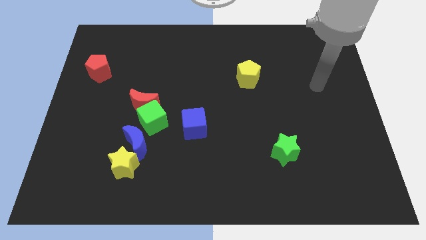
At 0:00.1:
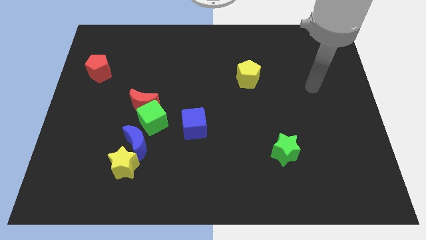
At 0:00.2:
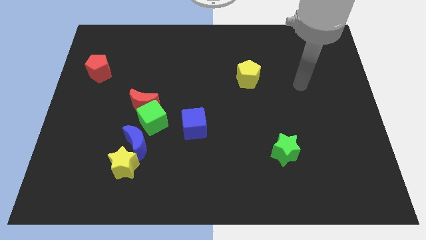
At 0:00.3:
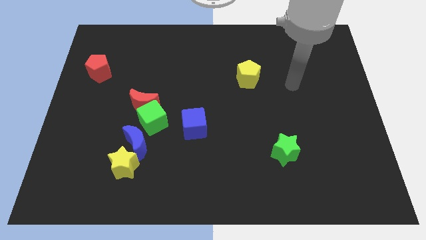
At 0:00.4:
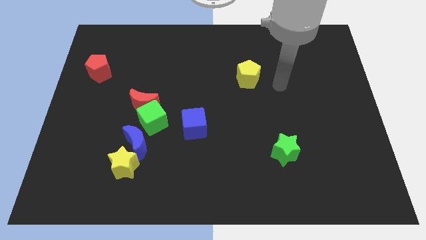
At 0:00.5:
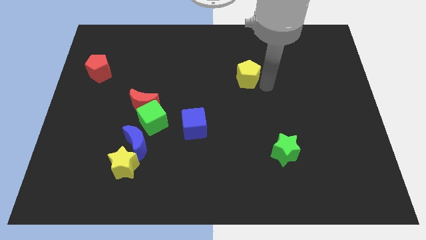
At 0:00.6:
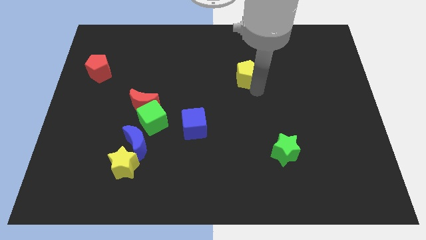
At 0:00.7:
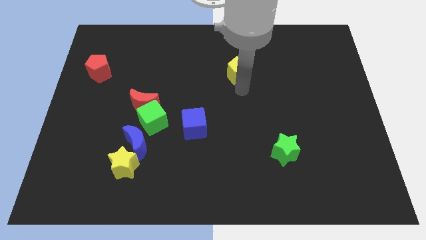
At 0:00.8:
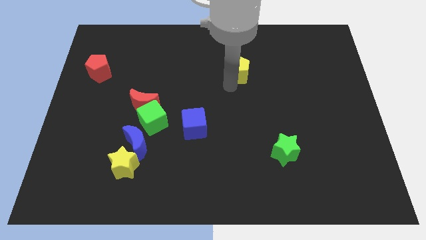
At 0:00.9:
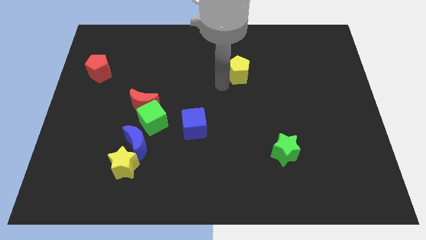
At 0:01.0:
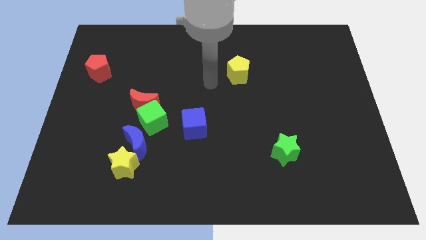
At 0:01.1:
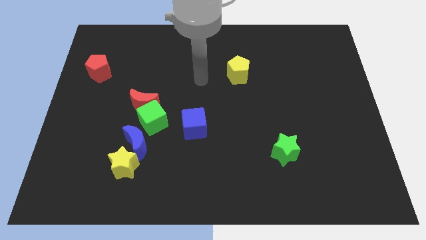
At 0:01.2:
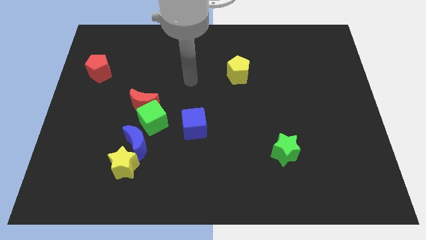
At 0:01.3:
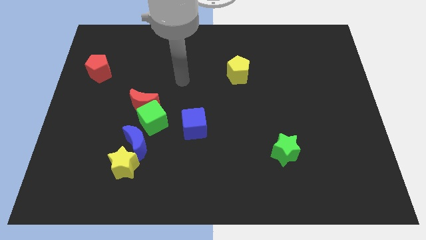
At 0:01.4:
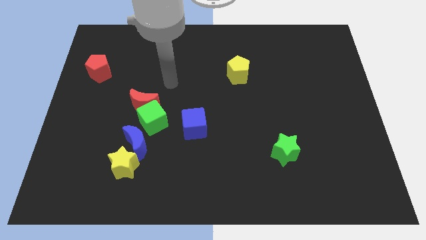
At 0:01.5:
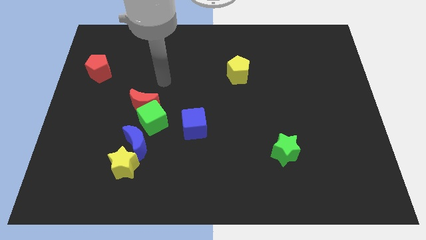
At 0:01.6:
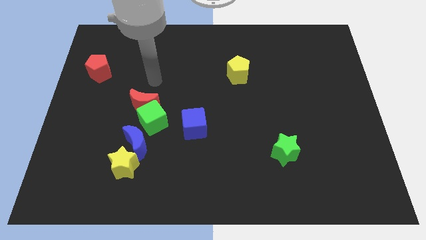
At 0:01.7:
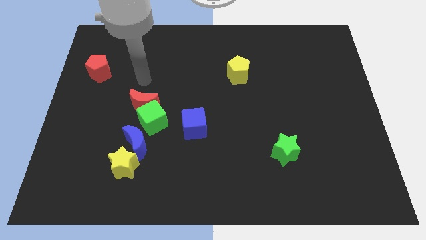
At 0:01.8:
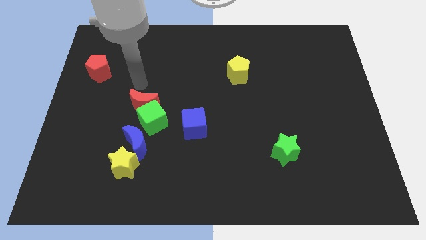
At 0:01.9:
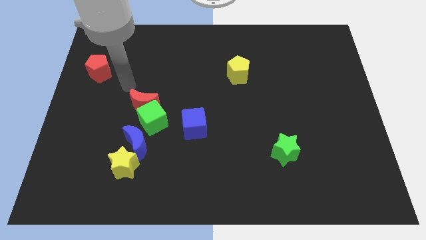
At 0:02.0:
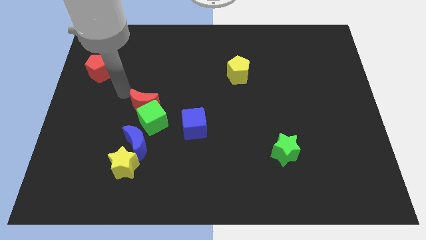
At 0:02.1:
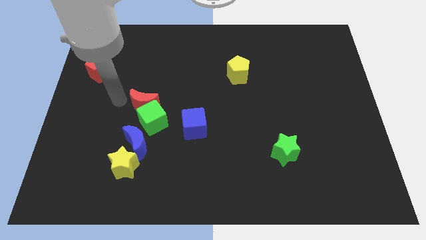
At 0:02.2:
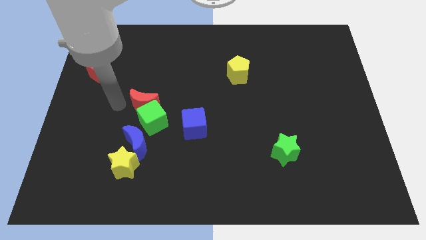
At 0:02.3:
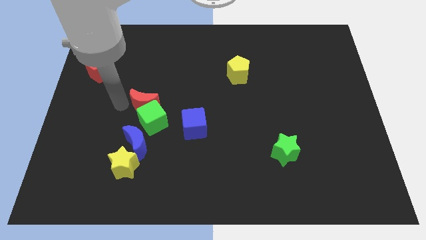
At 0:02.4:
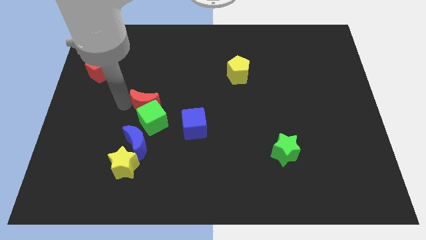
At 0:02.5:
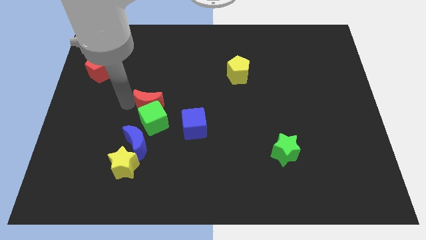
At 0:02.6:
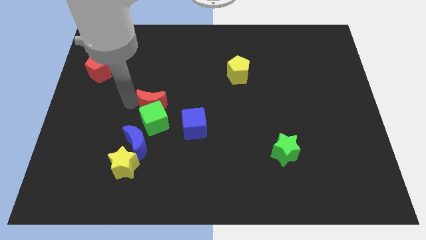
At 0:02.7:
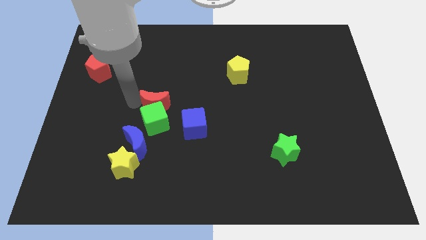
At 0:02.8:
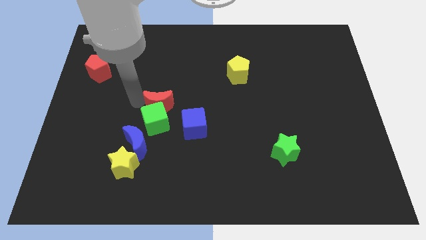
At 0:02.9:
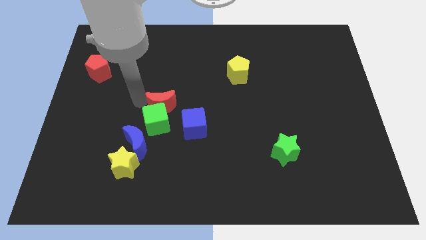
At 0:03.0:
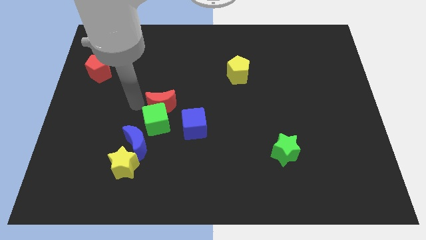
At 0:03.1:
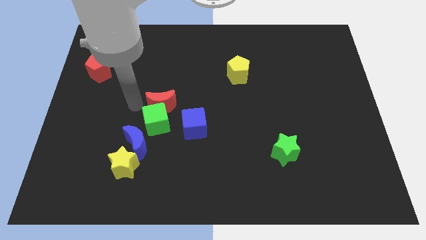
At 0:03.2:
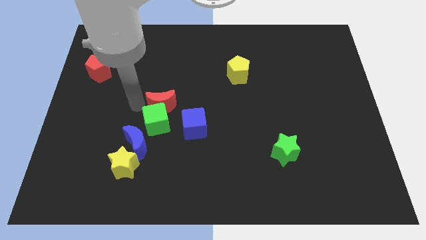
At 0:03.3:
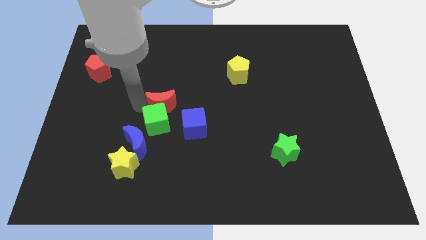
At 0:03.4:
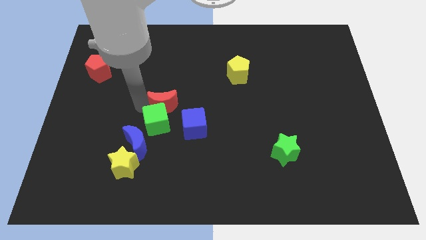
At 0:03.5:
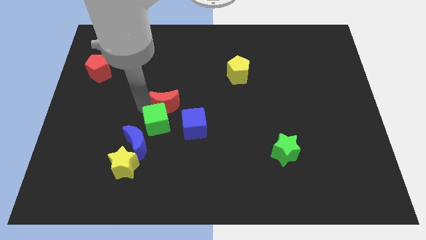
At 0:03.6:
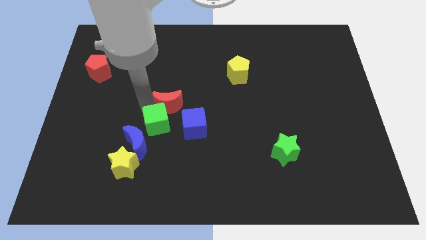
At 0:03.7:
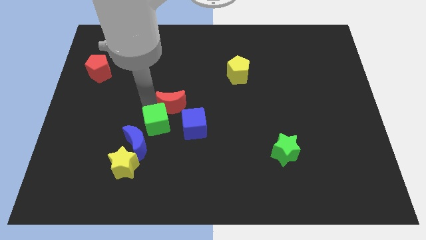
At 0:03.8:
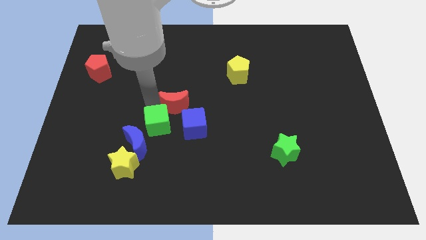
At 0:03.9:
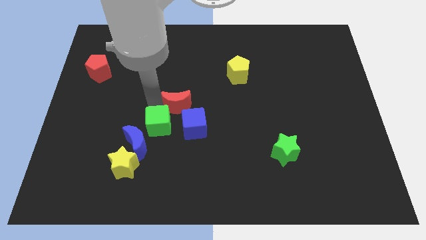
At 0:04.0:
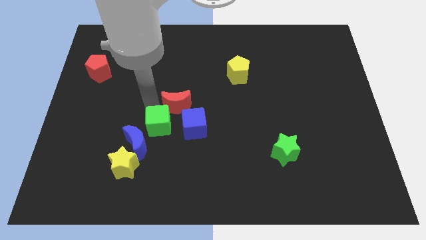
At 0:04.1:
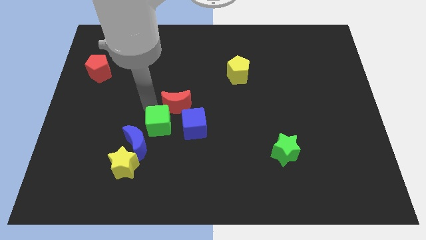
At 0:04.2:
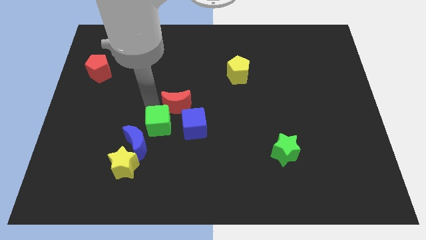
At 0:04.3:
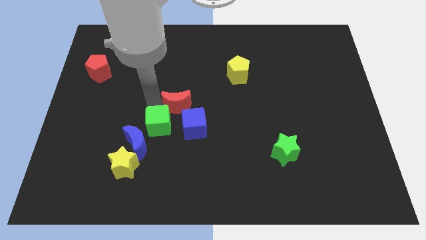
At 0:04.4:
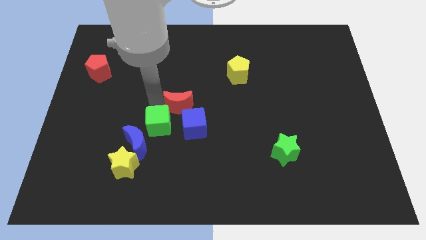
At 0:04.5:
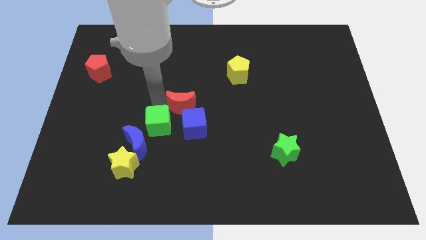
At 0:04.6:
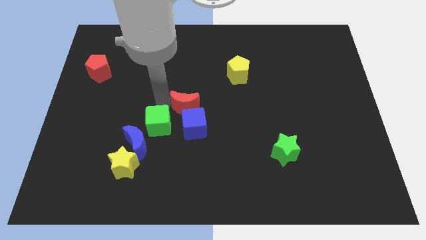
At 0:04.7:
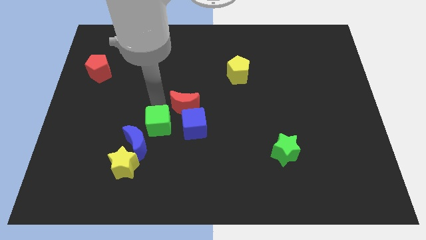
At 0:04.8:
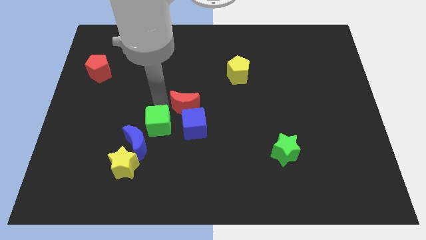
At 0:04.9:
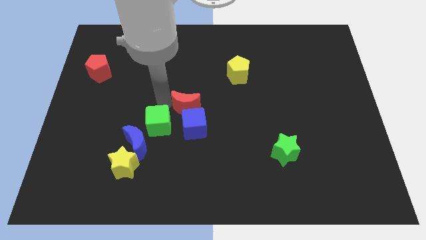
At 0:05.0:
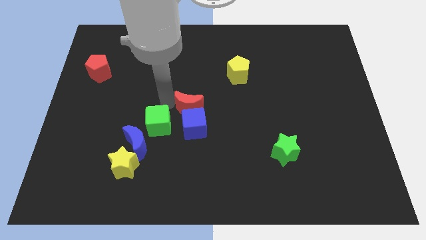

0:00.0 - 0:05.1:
push the red moon to the top right side of the blue cube

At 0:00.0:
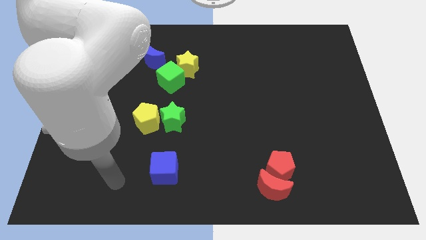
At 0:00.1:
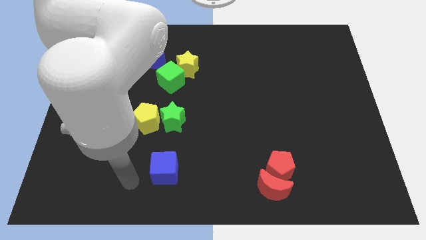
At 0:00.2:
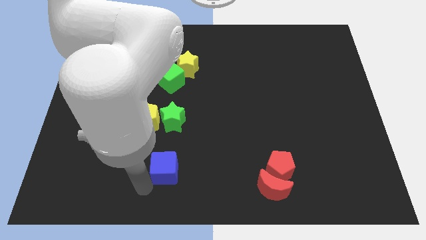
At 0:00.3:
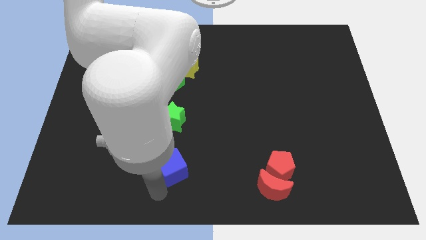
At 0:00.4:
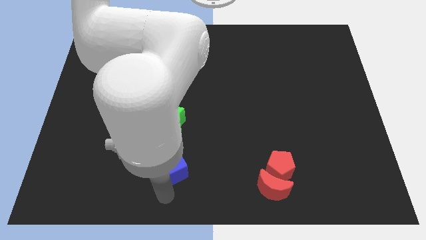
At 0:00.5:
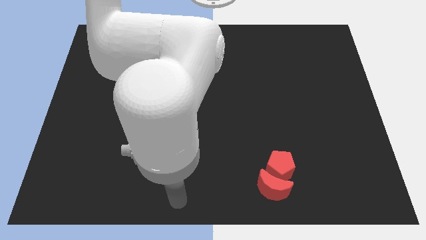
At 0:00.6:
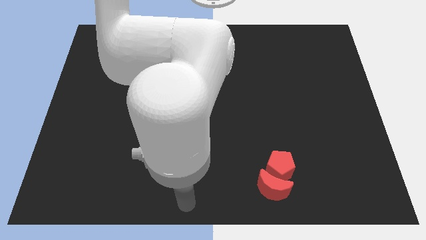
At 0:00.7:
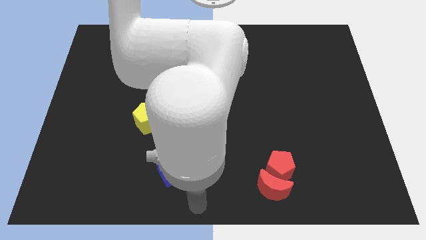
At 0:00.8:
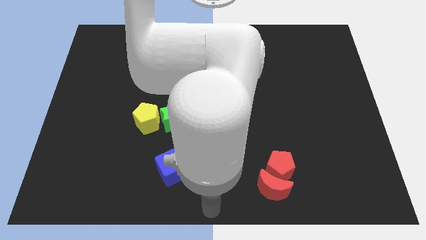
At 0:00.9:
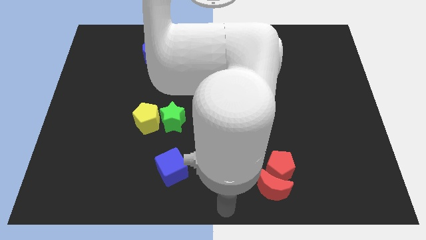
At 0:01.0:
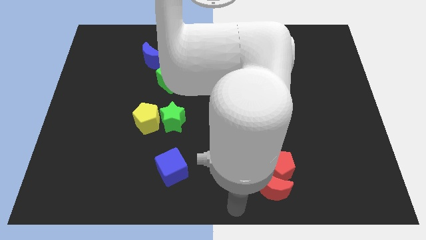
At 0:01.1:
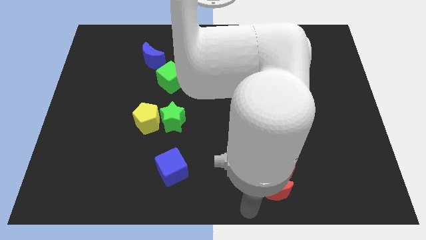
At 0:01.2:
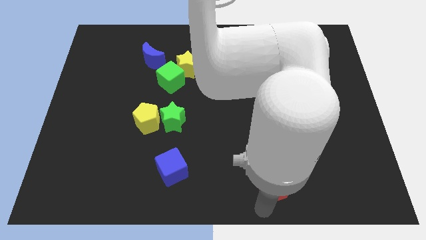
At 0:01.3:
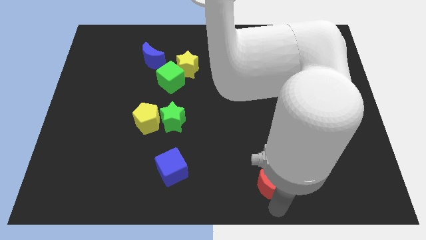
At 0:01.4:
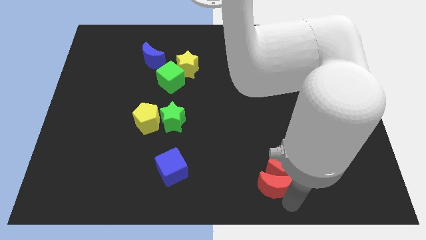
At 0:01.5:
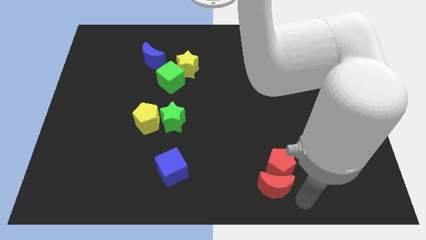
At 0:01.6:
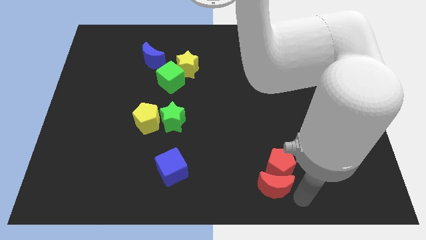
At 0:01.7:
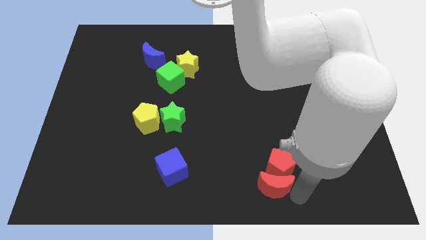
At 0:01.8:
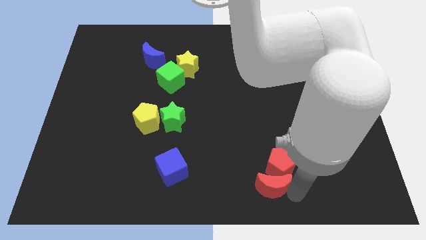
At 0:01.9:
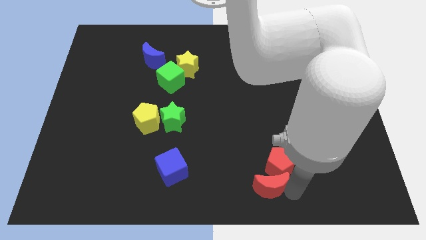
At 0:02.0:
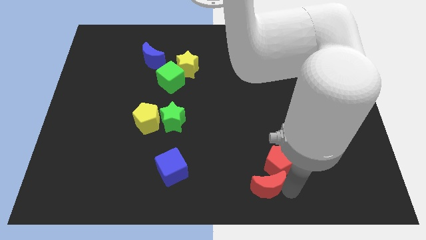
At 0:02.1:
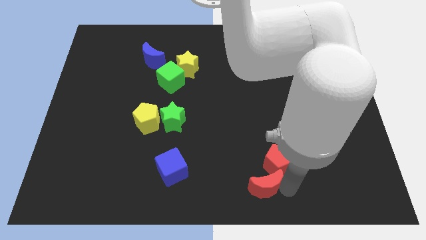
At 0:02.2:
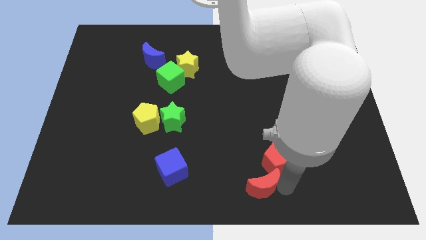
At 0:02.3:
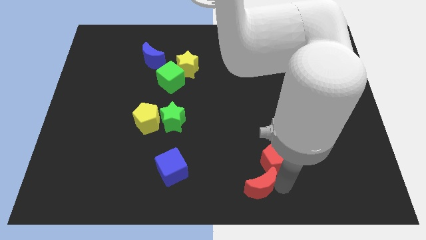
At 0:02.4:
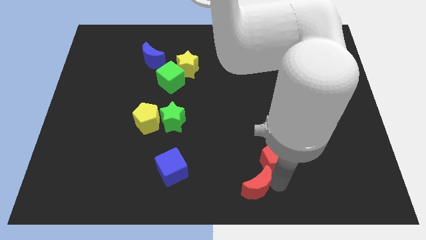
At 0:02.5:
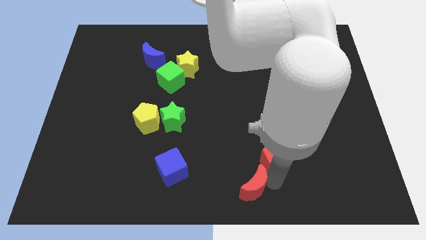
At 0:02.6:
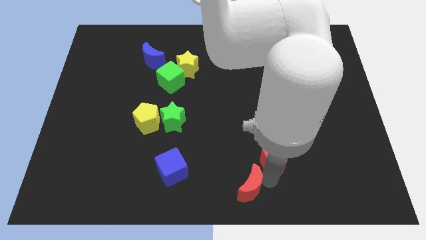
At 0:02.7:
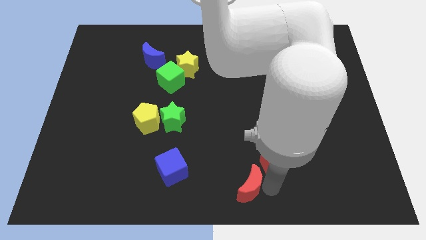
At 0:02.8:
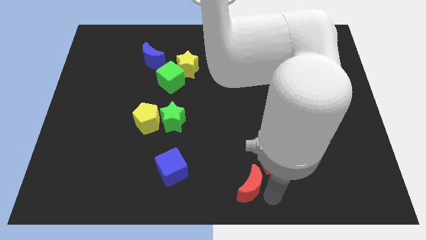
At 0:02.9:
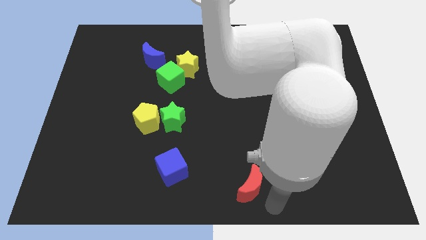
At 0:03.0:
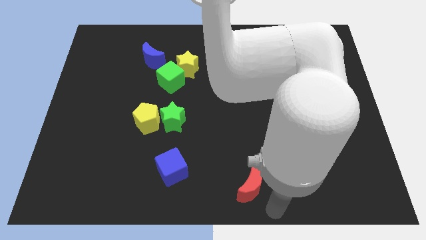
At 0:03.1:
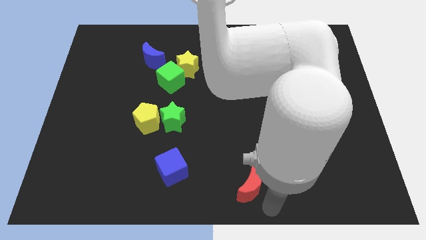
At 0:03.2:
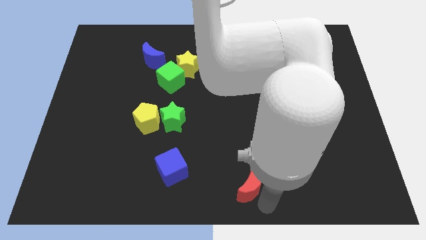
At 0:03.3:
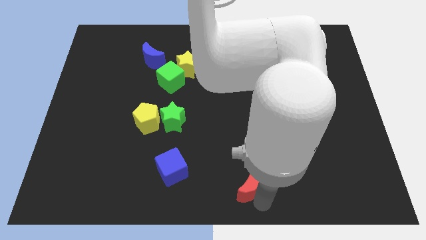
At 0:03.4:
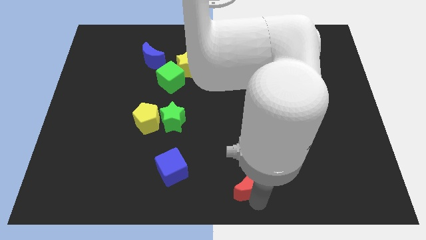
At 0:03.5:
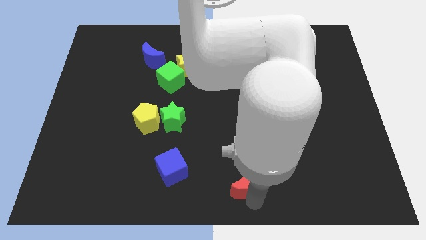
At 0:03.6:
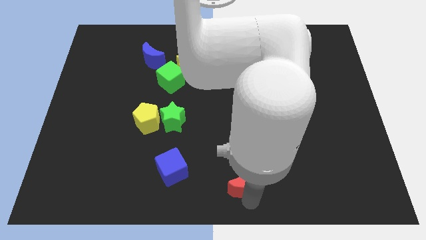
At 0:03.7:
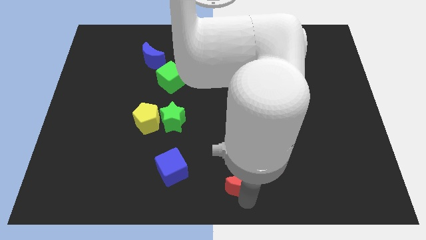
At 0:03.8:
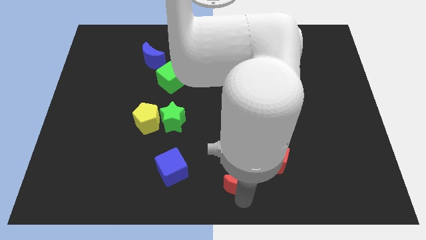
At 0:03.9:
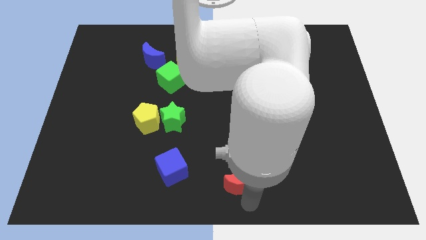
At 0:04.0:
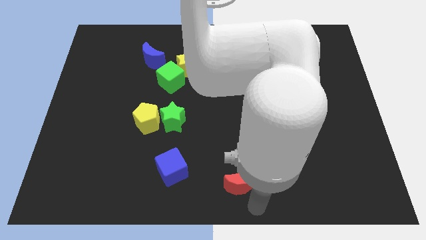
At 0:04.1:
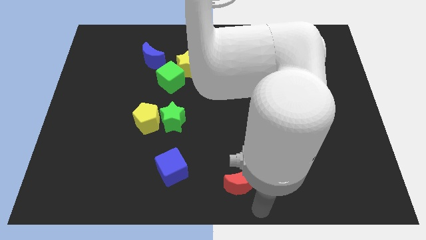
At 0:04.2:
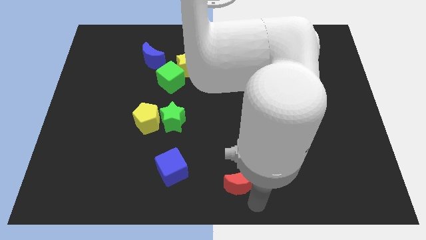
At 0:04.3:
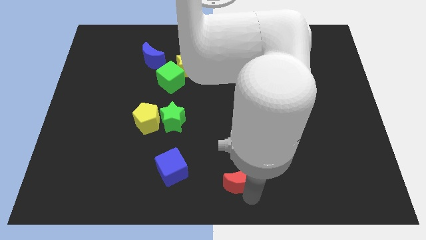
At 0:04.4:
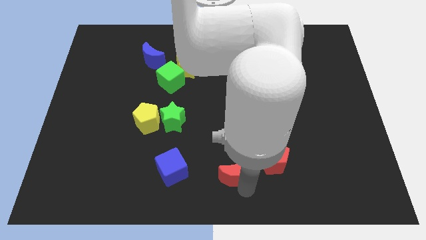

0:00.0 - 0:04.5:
slide the red moon just left of the red pentagon
